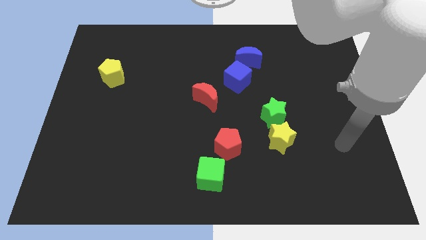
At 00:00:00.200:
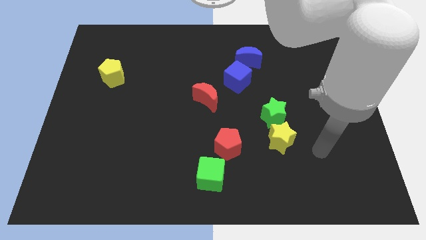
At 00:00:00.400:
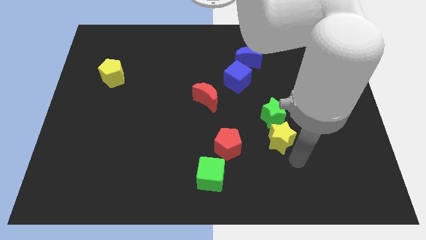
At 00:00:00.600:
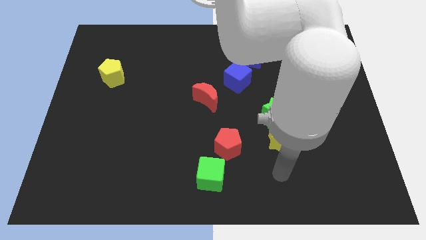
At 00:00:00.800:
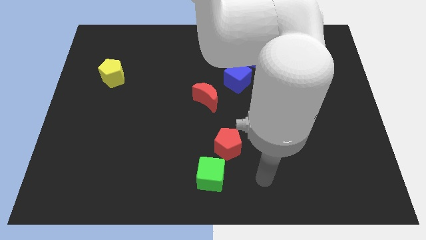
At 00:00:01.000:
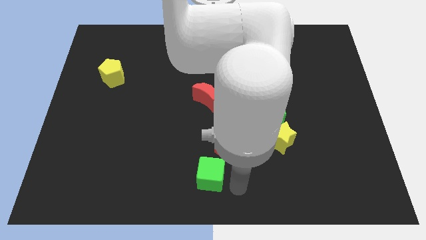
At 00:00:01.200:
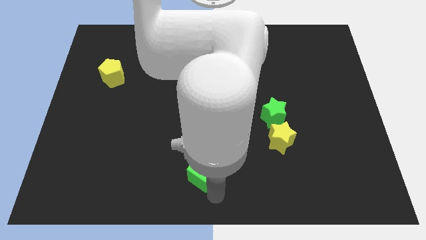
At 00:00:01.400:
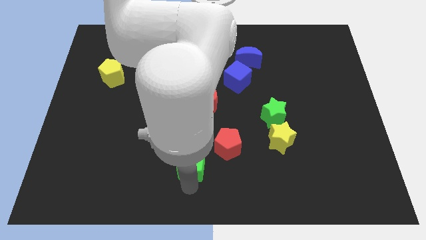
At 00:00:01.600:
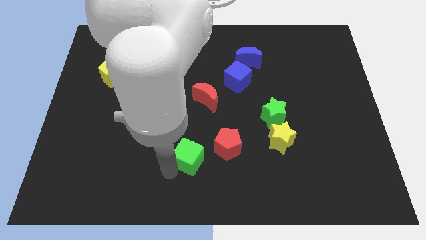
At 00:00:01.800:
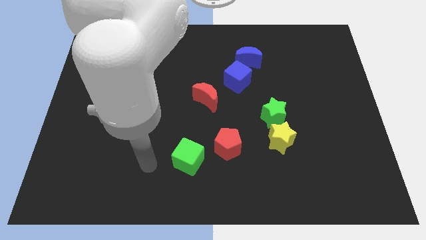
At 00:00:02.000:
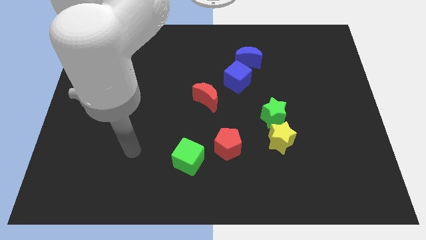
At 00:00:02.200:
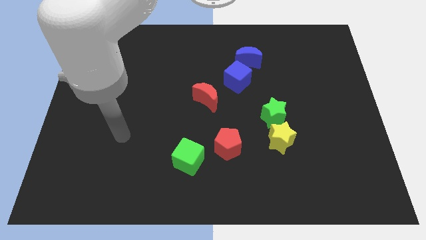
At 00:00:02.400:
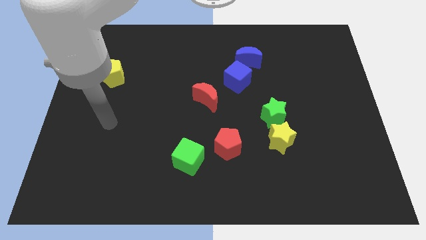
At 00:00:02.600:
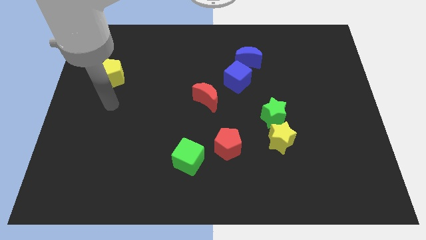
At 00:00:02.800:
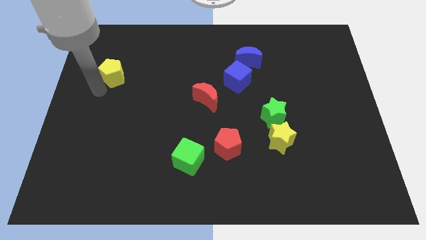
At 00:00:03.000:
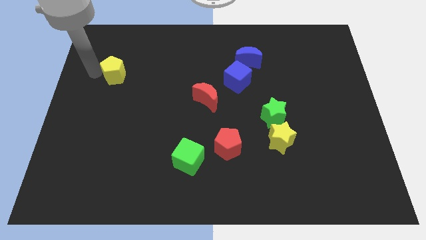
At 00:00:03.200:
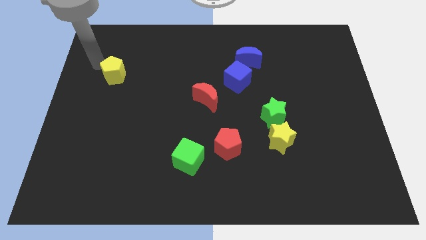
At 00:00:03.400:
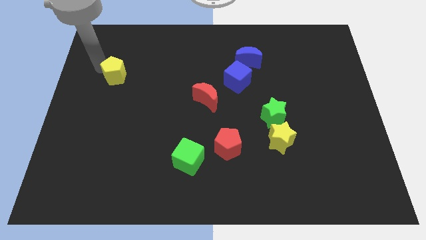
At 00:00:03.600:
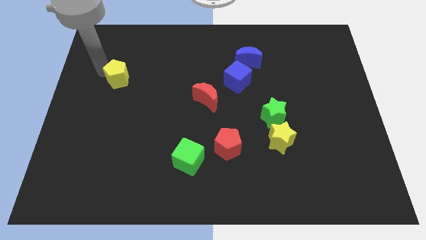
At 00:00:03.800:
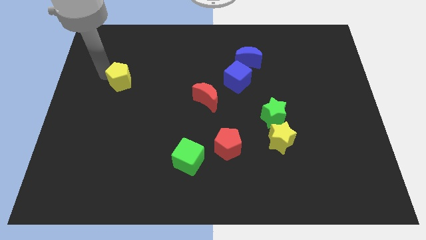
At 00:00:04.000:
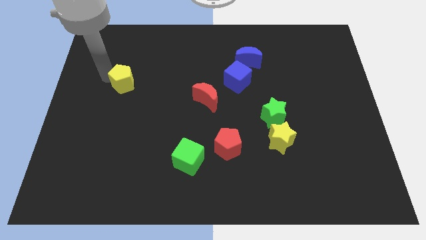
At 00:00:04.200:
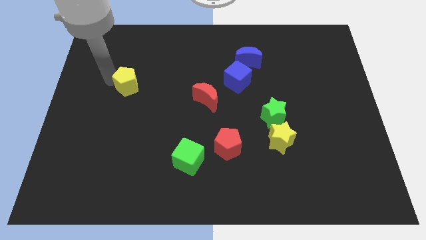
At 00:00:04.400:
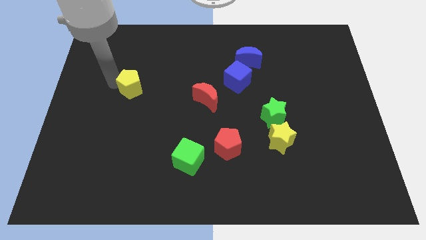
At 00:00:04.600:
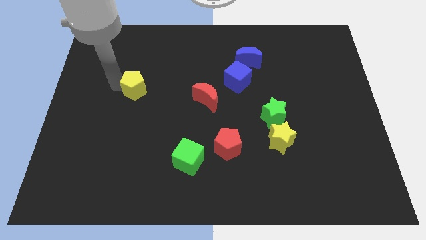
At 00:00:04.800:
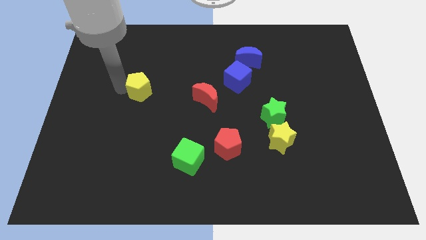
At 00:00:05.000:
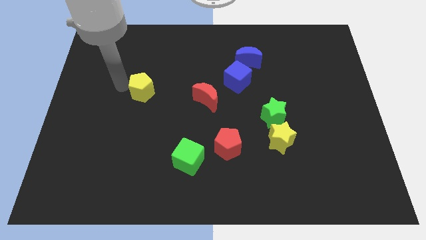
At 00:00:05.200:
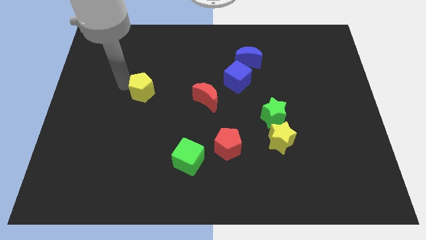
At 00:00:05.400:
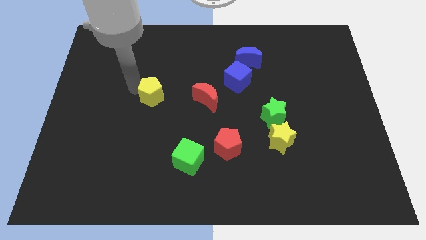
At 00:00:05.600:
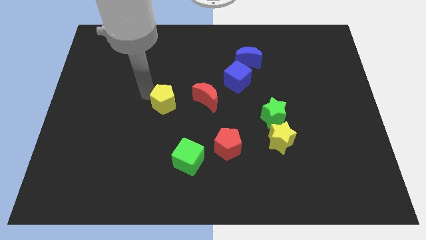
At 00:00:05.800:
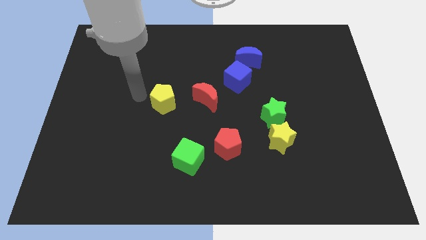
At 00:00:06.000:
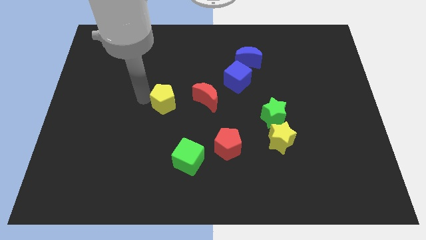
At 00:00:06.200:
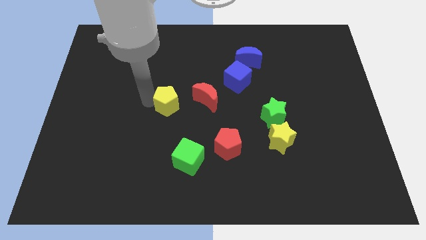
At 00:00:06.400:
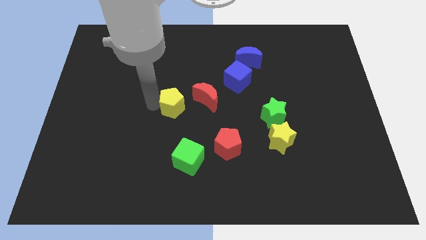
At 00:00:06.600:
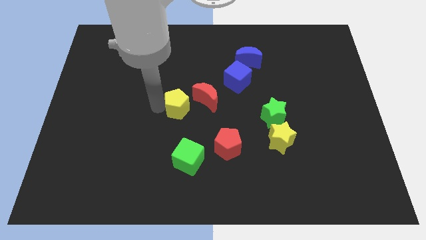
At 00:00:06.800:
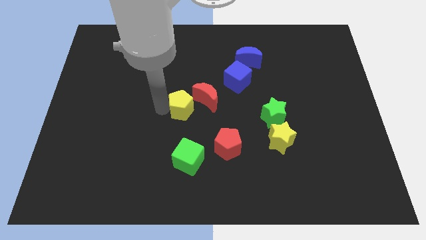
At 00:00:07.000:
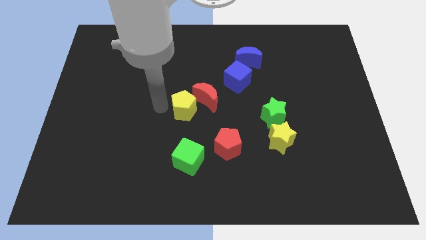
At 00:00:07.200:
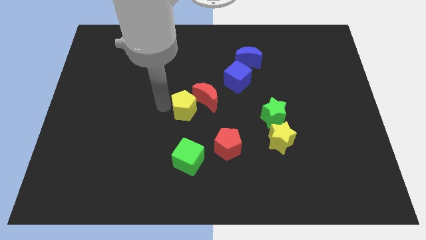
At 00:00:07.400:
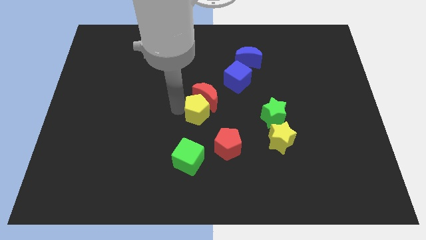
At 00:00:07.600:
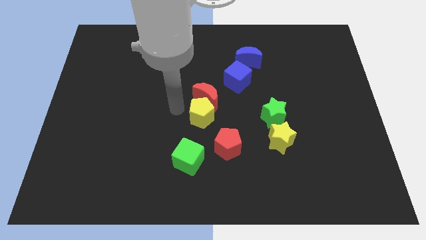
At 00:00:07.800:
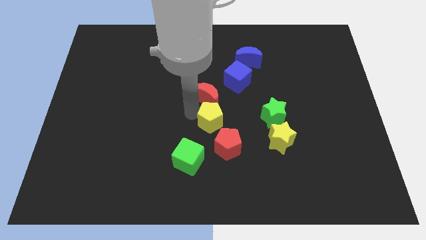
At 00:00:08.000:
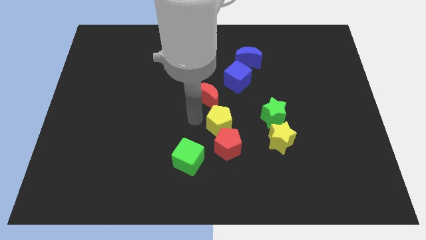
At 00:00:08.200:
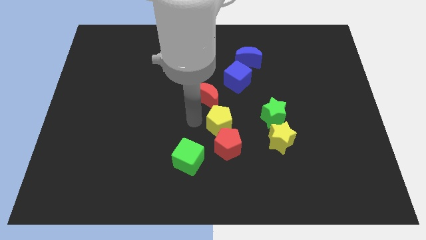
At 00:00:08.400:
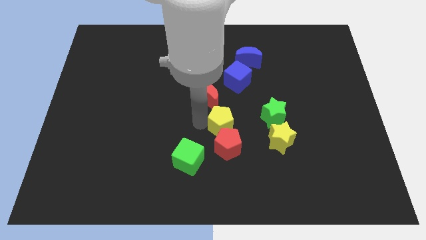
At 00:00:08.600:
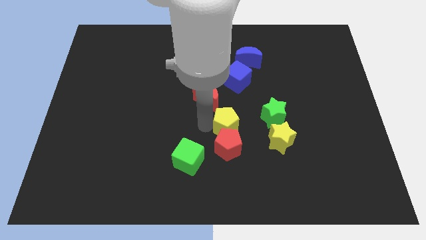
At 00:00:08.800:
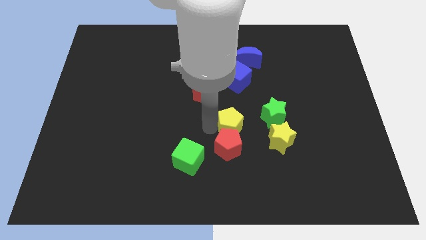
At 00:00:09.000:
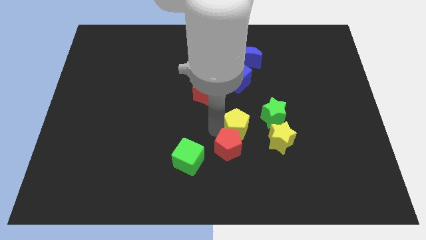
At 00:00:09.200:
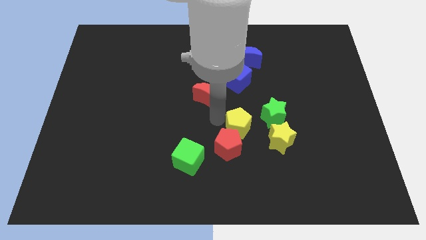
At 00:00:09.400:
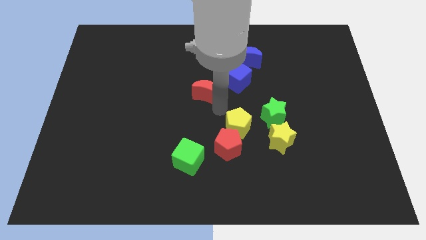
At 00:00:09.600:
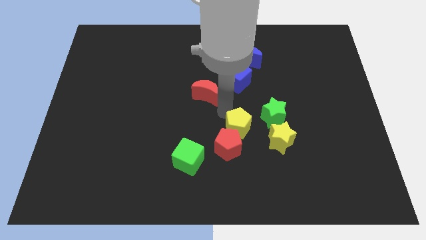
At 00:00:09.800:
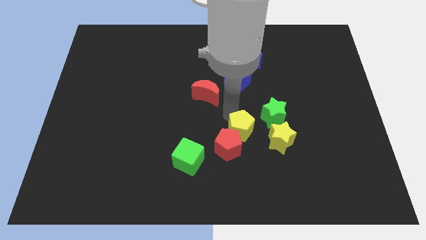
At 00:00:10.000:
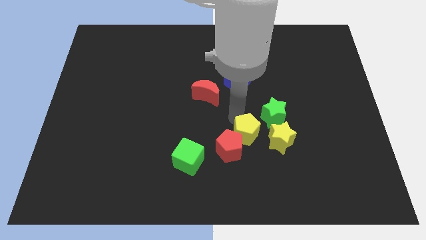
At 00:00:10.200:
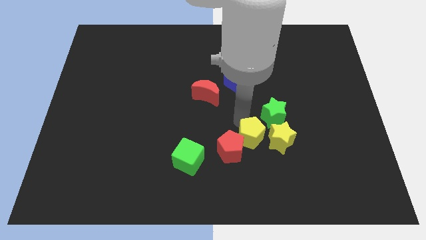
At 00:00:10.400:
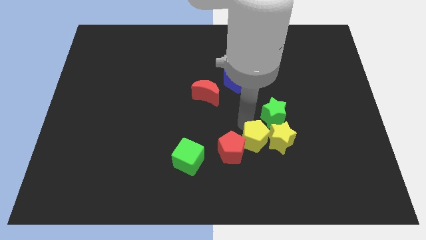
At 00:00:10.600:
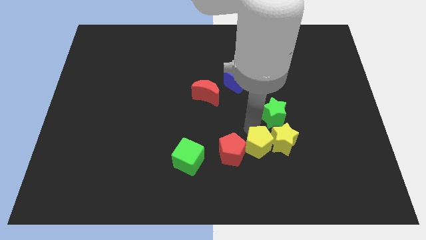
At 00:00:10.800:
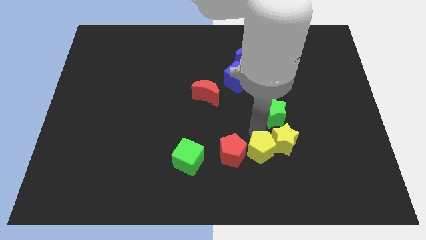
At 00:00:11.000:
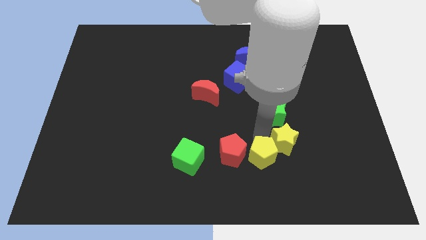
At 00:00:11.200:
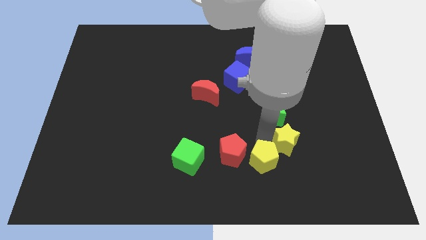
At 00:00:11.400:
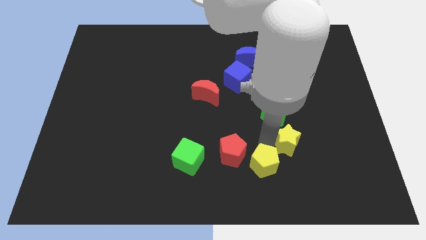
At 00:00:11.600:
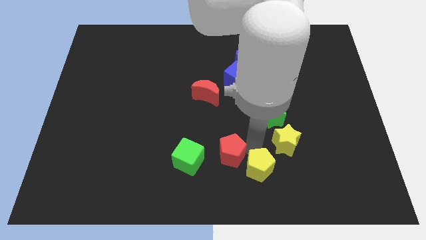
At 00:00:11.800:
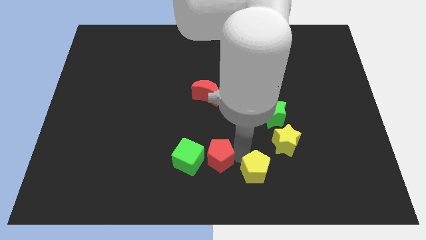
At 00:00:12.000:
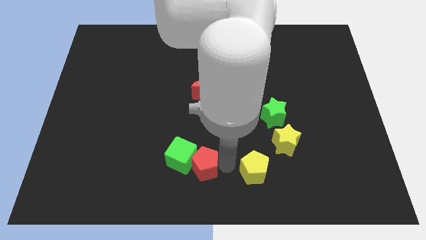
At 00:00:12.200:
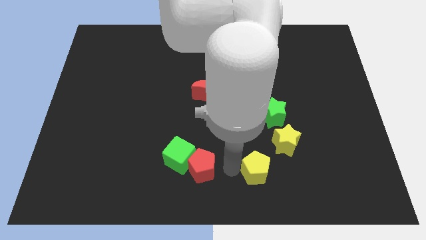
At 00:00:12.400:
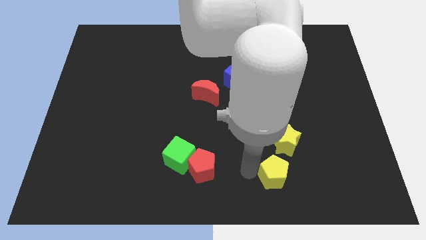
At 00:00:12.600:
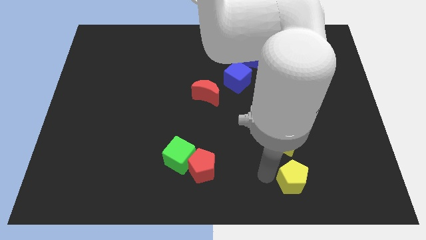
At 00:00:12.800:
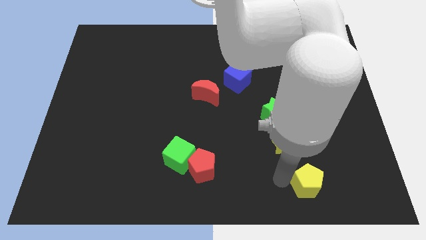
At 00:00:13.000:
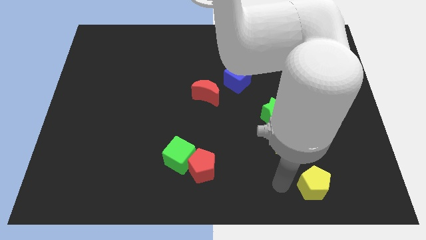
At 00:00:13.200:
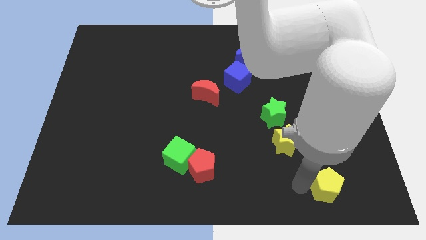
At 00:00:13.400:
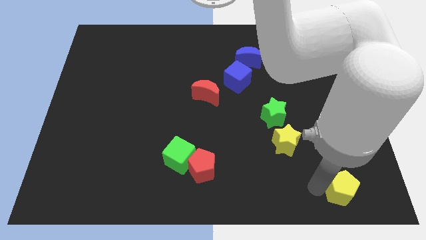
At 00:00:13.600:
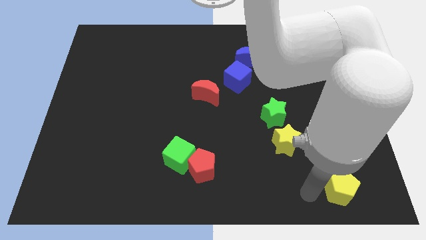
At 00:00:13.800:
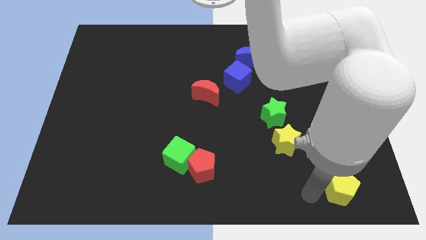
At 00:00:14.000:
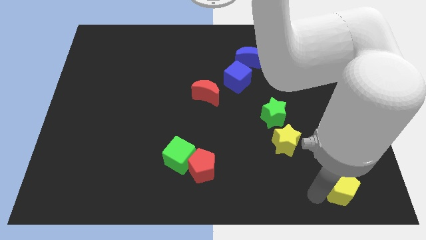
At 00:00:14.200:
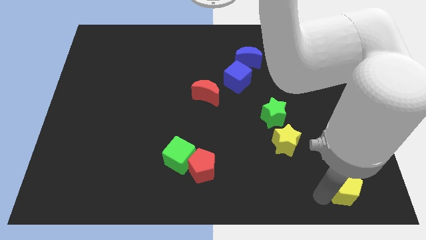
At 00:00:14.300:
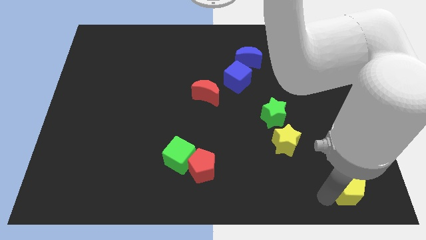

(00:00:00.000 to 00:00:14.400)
put the yellow pentagon to the lower right corner
